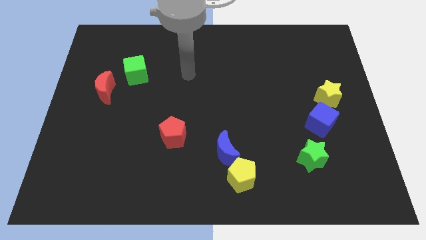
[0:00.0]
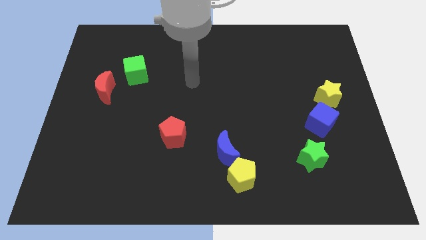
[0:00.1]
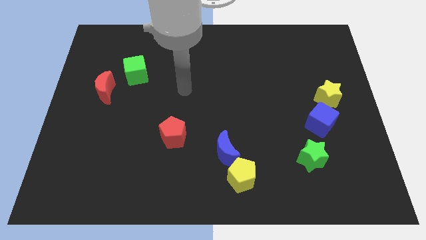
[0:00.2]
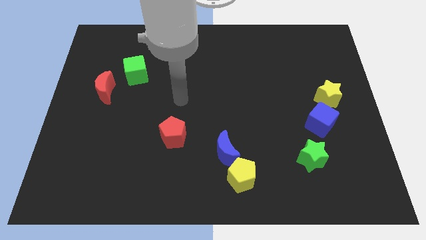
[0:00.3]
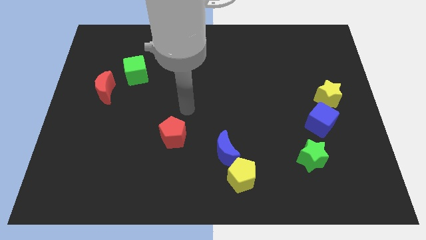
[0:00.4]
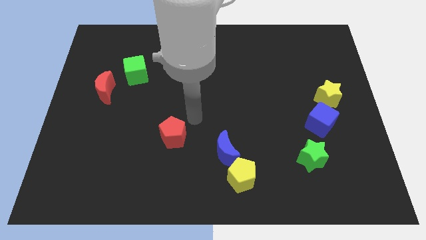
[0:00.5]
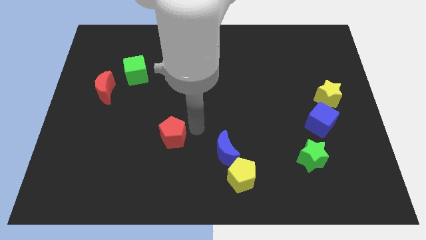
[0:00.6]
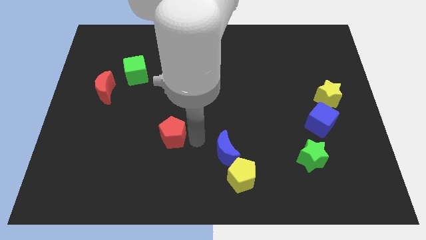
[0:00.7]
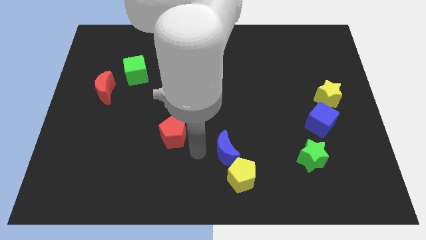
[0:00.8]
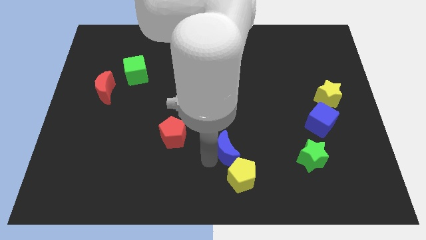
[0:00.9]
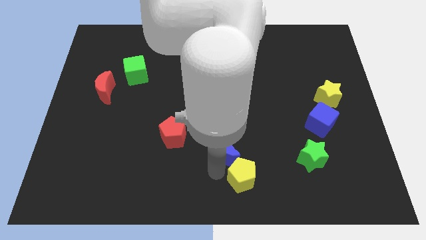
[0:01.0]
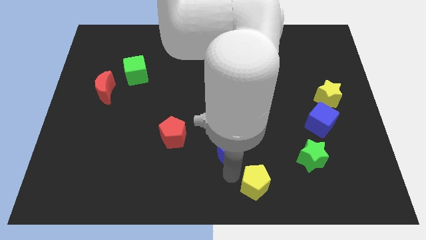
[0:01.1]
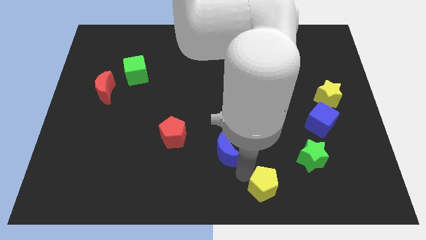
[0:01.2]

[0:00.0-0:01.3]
pull the blue moon apart from the yellow pentagon

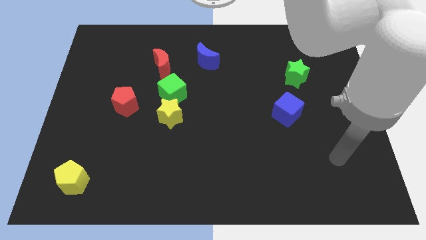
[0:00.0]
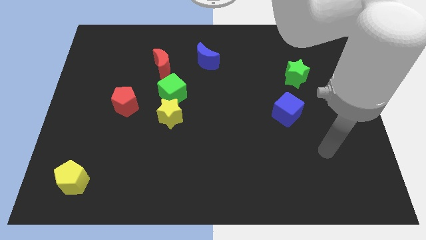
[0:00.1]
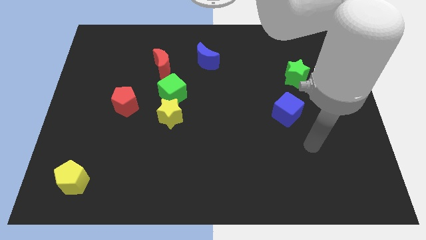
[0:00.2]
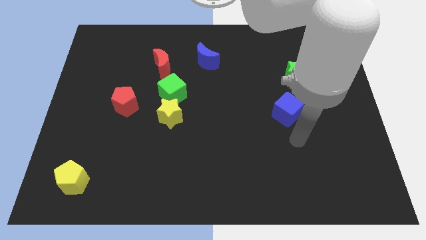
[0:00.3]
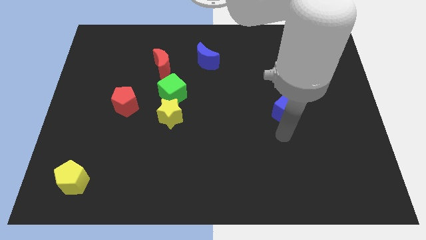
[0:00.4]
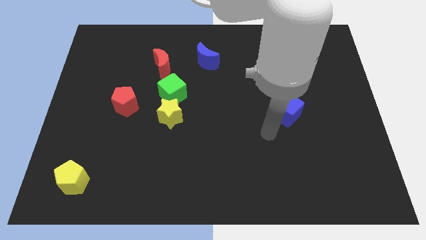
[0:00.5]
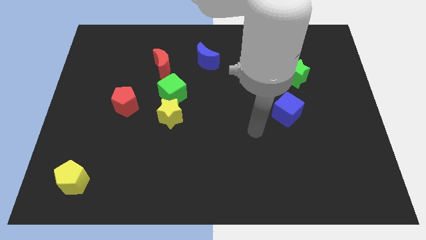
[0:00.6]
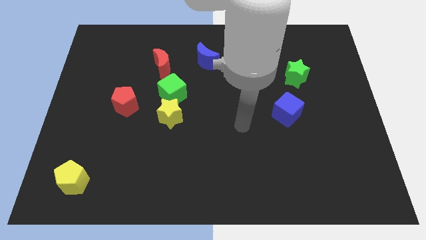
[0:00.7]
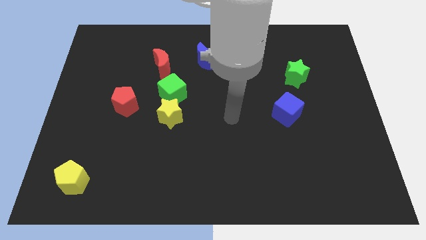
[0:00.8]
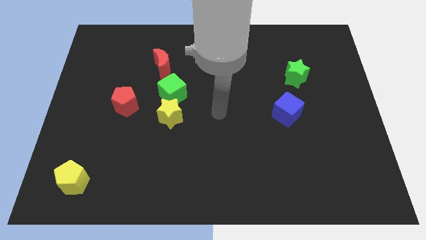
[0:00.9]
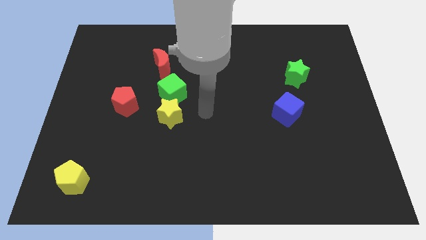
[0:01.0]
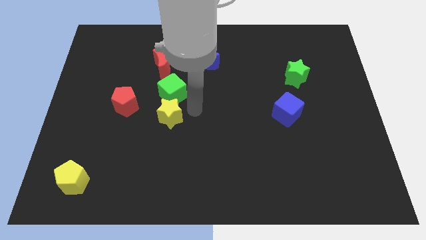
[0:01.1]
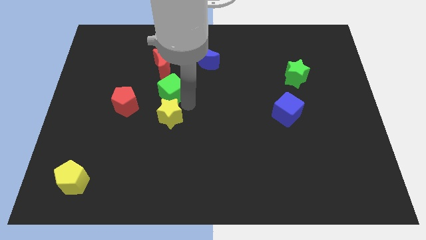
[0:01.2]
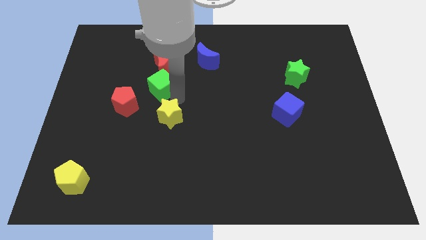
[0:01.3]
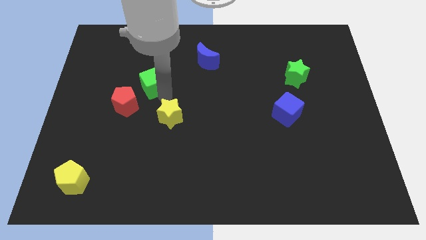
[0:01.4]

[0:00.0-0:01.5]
move the yellow star away from the green cube

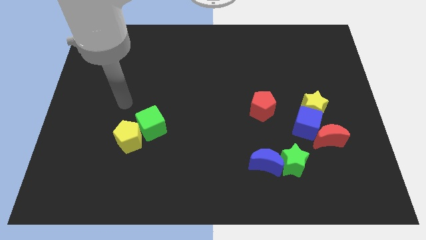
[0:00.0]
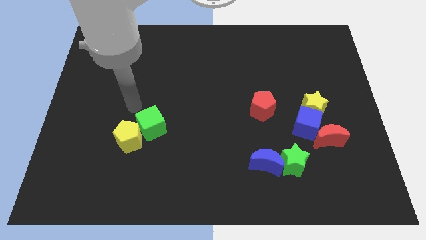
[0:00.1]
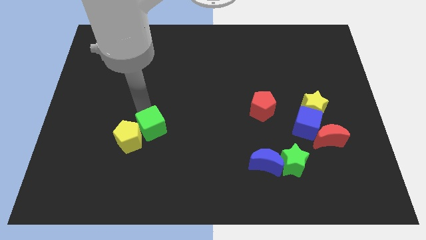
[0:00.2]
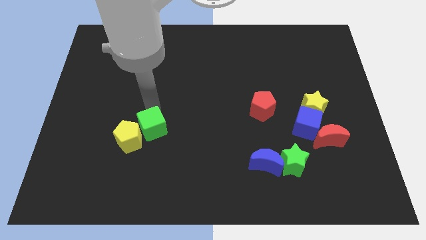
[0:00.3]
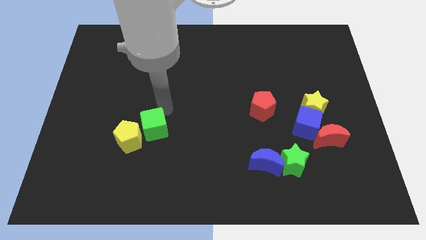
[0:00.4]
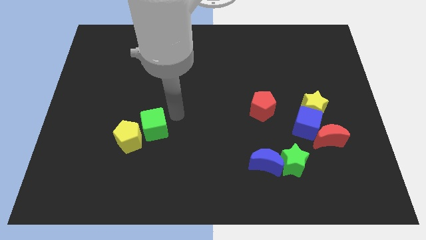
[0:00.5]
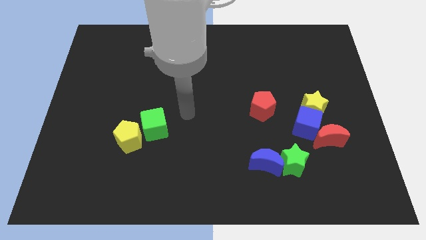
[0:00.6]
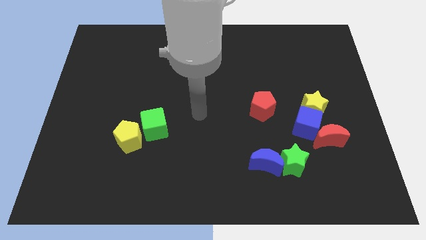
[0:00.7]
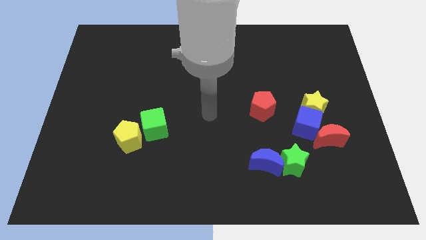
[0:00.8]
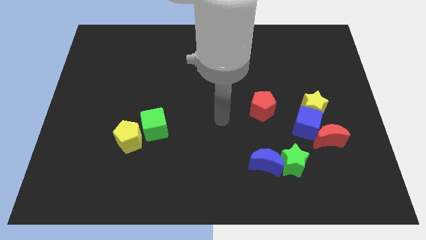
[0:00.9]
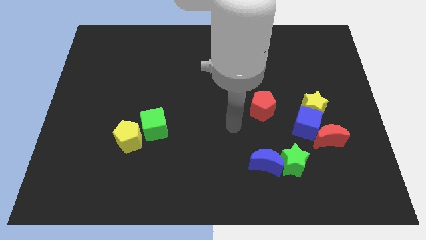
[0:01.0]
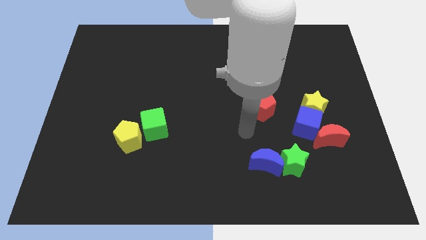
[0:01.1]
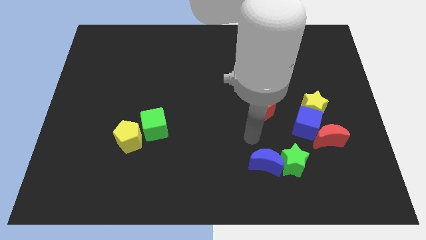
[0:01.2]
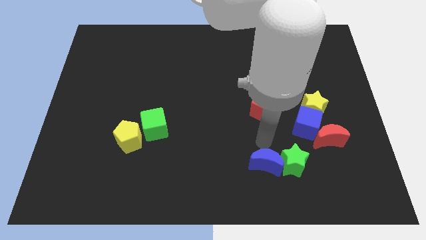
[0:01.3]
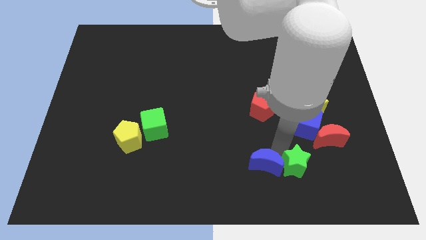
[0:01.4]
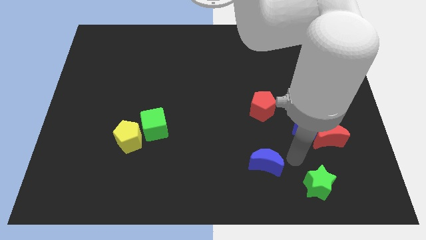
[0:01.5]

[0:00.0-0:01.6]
pull the blue moon apart from the green star

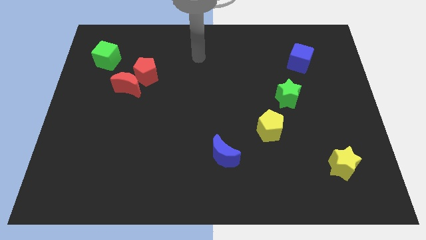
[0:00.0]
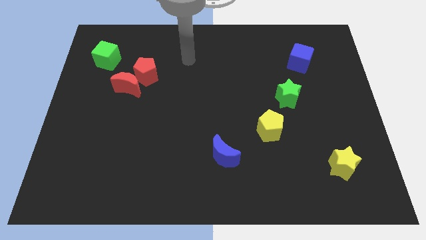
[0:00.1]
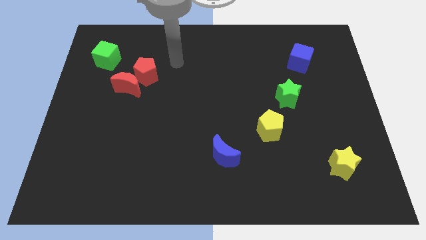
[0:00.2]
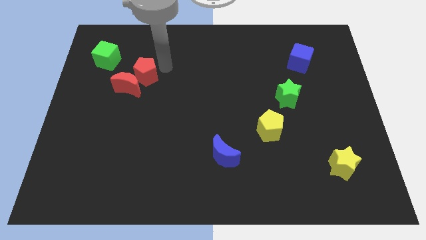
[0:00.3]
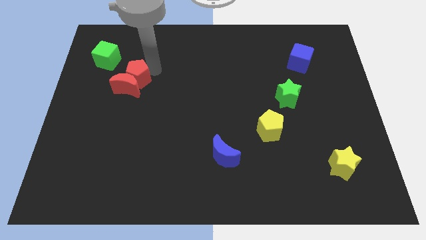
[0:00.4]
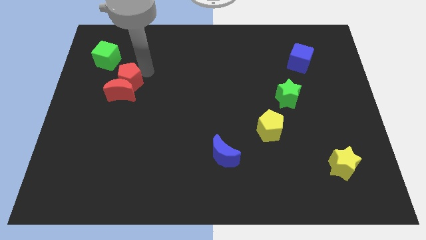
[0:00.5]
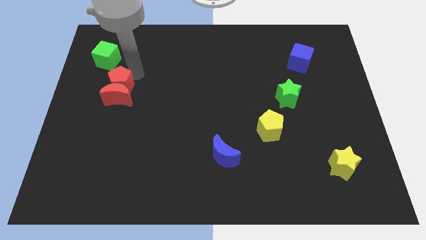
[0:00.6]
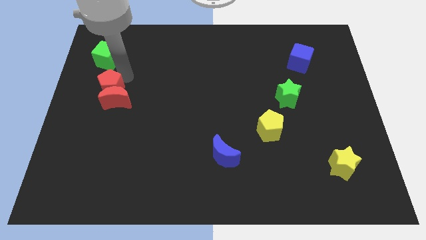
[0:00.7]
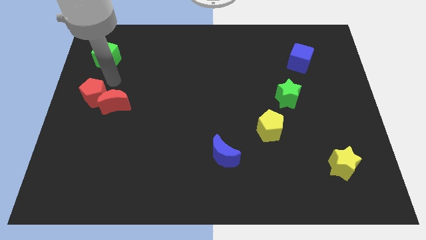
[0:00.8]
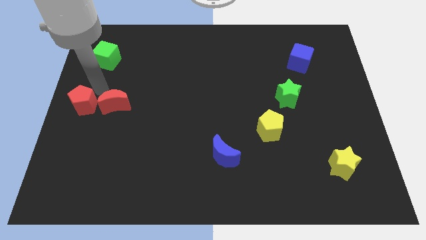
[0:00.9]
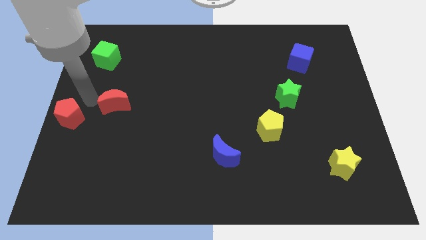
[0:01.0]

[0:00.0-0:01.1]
move the red moon away from the red pentagon

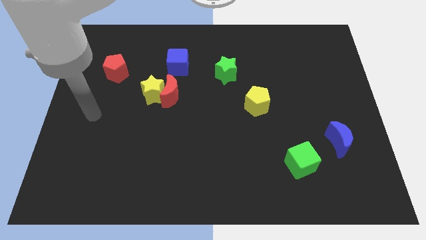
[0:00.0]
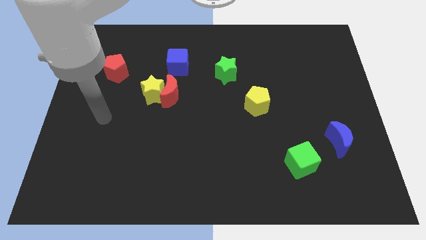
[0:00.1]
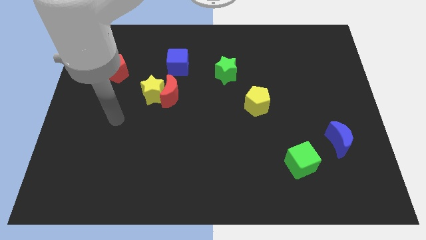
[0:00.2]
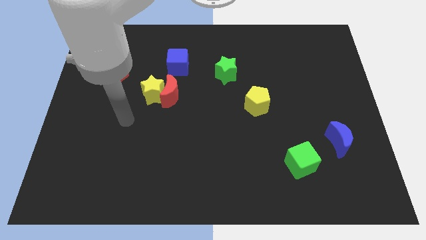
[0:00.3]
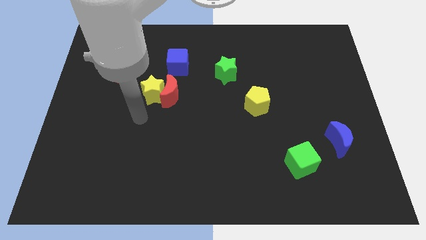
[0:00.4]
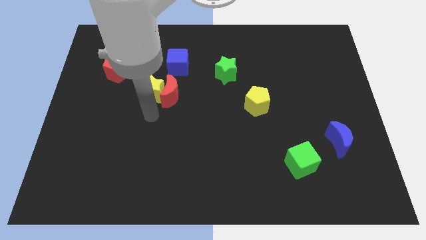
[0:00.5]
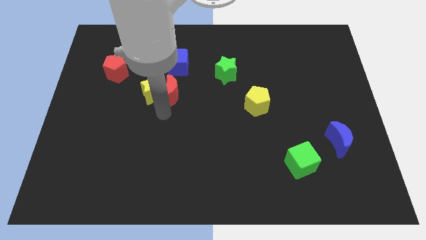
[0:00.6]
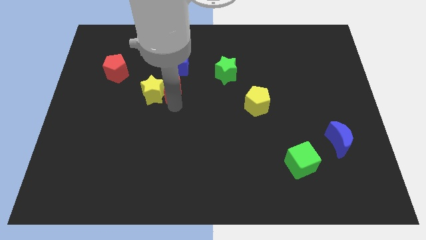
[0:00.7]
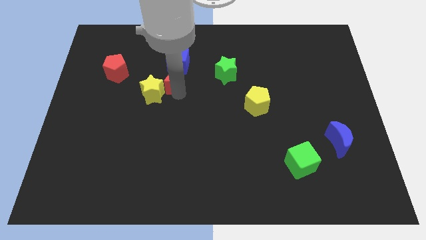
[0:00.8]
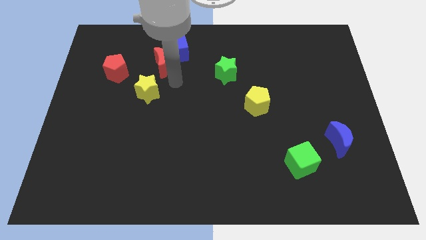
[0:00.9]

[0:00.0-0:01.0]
pull the yellow star apart from the red moon

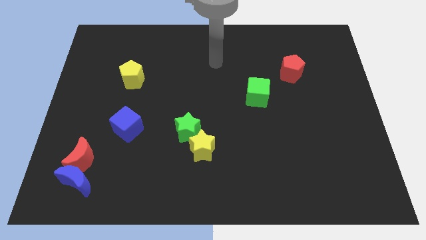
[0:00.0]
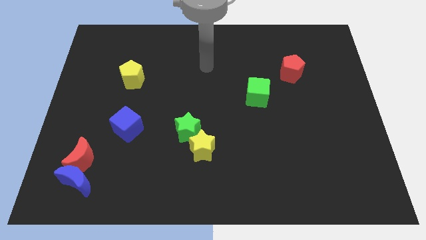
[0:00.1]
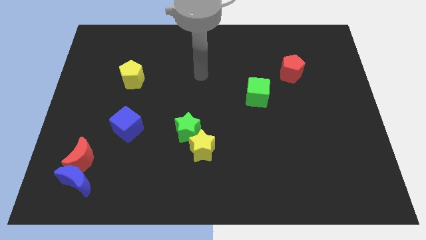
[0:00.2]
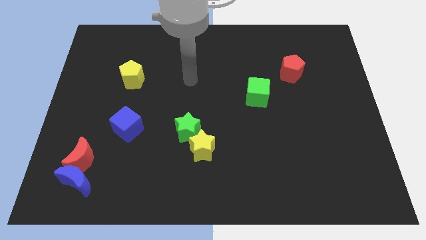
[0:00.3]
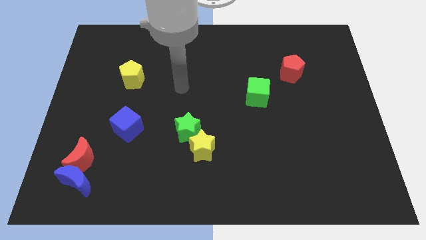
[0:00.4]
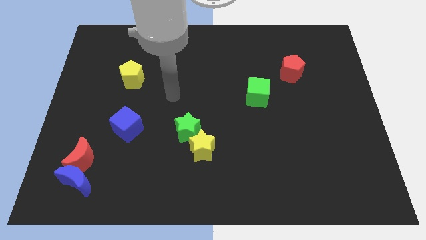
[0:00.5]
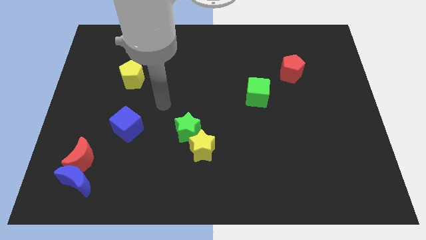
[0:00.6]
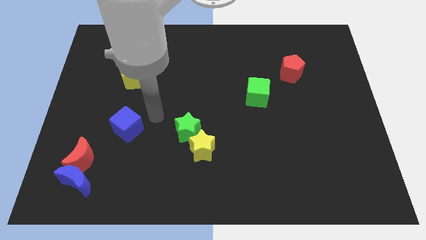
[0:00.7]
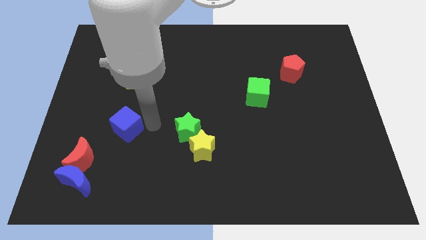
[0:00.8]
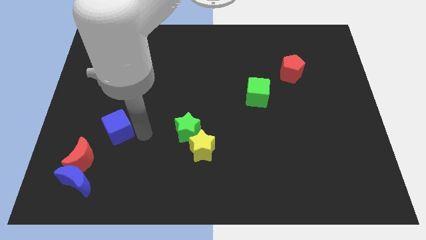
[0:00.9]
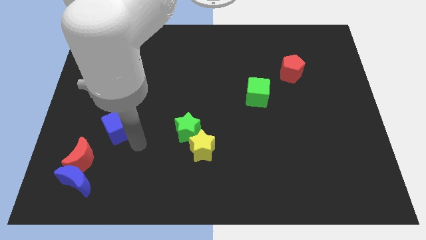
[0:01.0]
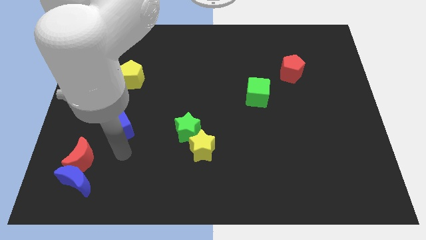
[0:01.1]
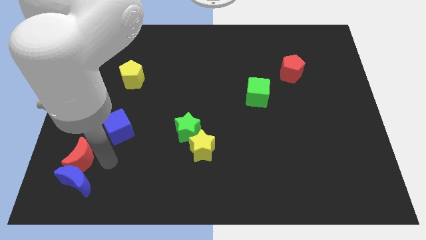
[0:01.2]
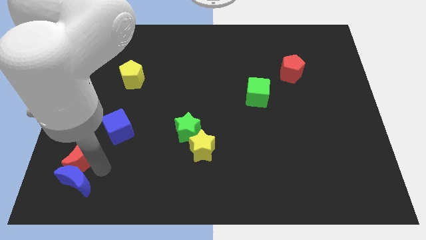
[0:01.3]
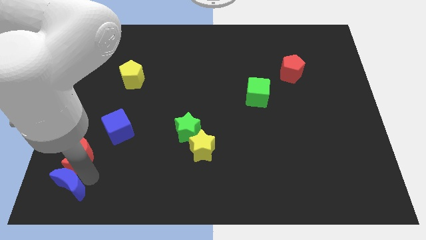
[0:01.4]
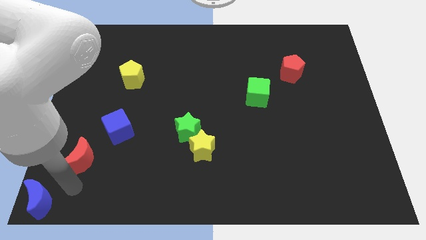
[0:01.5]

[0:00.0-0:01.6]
move the red moon away from the blue moon

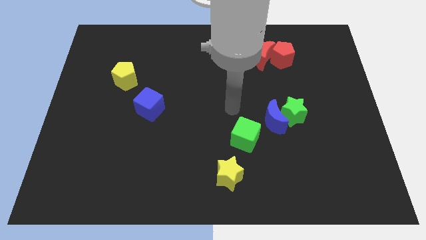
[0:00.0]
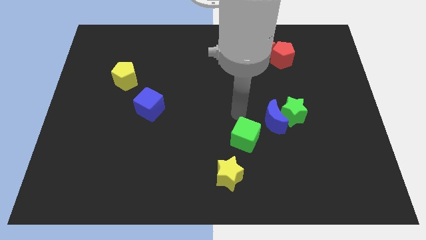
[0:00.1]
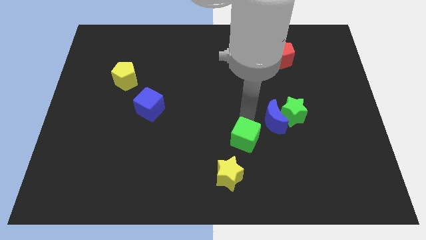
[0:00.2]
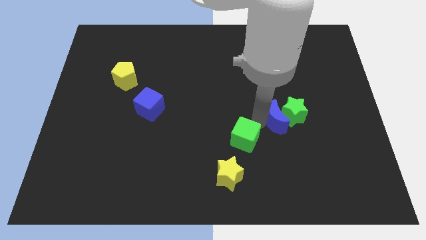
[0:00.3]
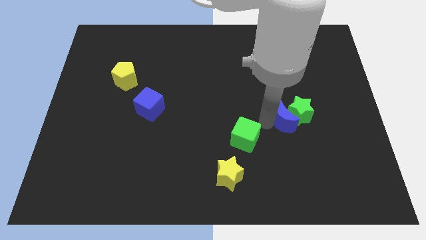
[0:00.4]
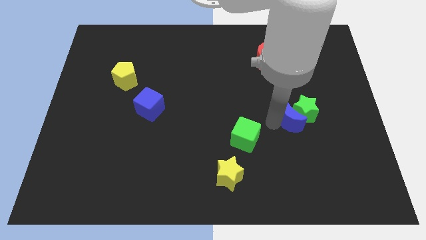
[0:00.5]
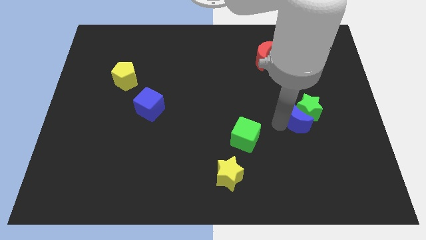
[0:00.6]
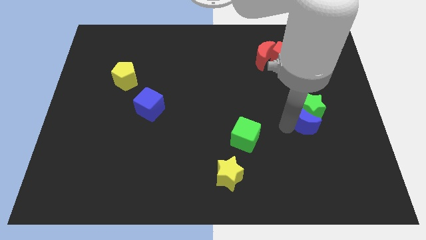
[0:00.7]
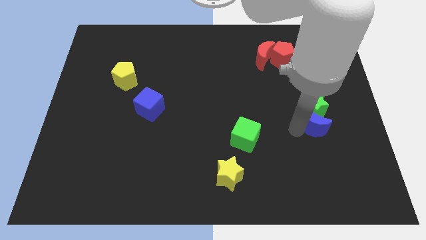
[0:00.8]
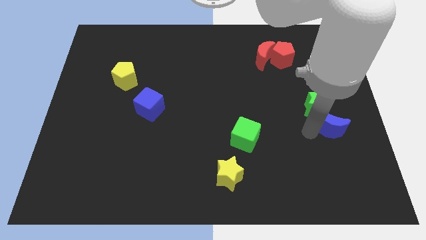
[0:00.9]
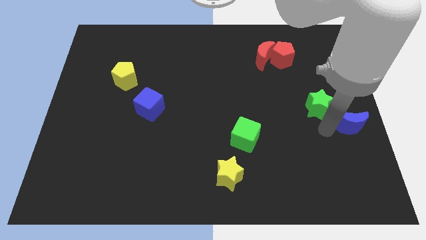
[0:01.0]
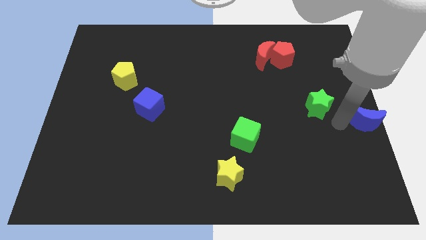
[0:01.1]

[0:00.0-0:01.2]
pull the green star apart from the blue moon
